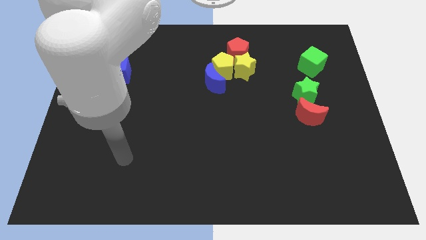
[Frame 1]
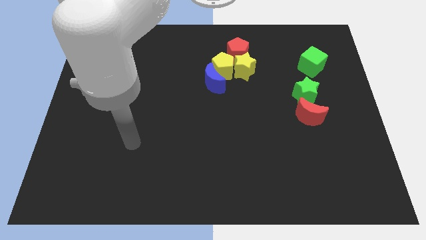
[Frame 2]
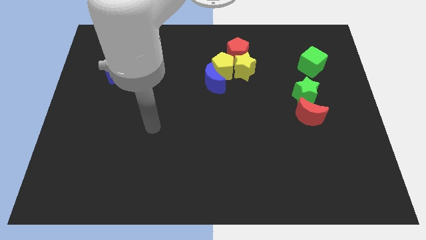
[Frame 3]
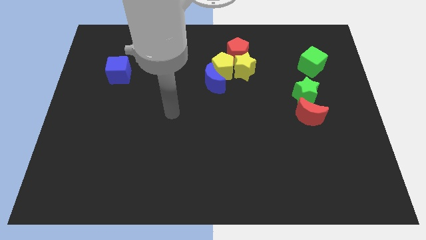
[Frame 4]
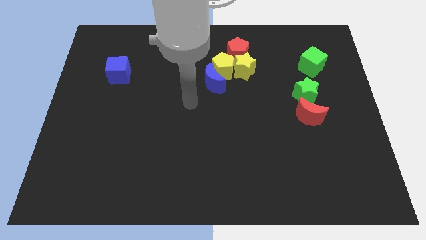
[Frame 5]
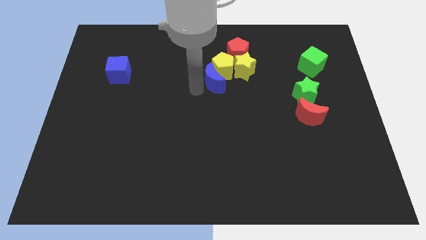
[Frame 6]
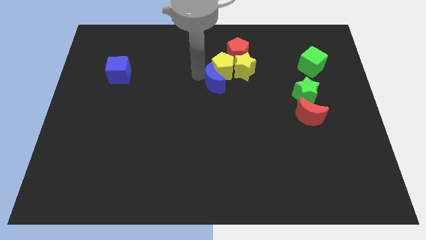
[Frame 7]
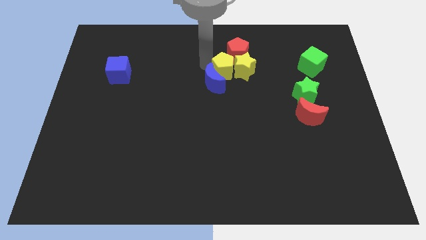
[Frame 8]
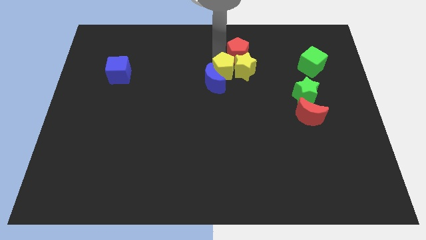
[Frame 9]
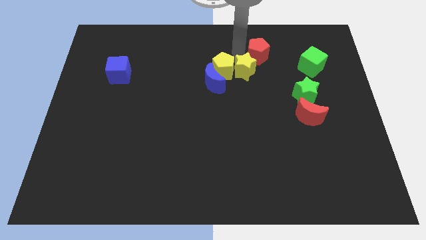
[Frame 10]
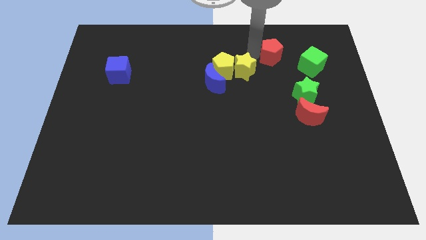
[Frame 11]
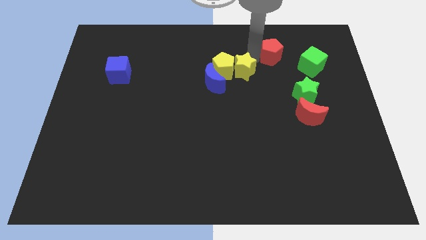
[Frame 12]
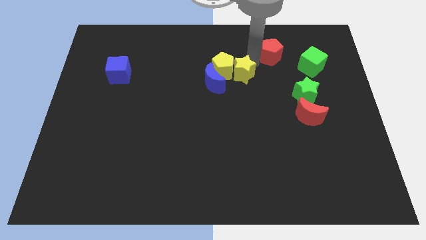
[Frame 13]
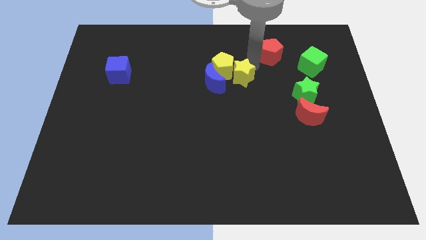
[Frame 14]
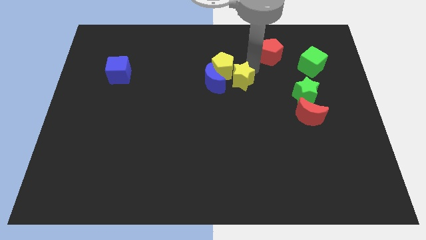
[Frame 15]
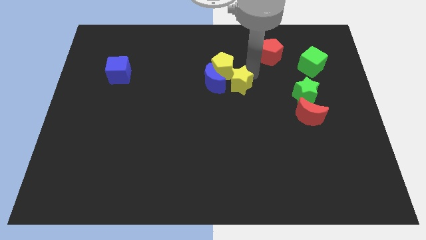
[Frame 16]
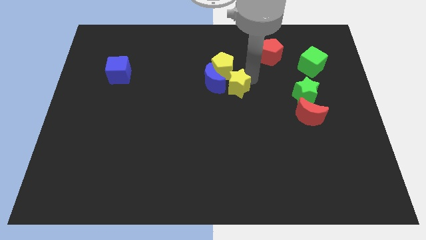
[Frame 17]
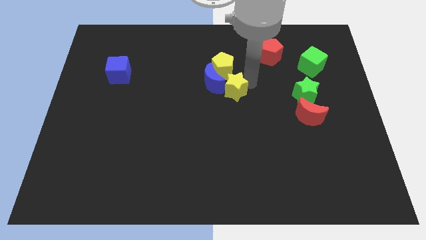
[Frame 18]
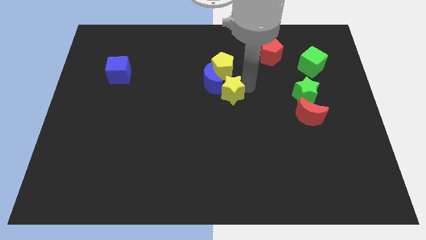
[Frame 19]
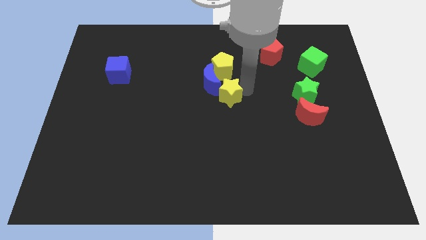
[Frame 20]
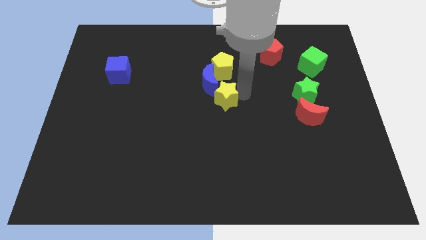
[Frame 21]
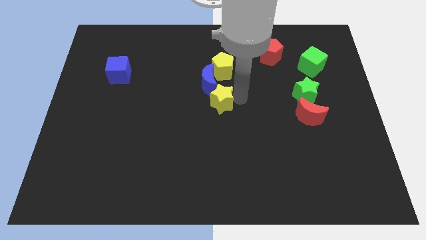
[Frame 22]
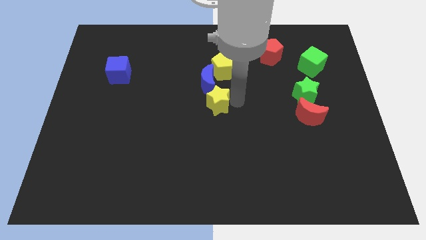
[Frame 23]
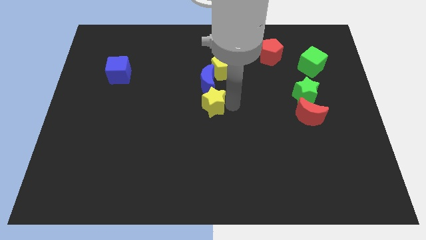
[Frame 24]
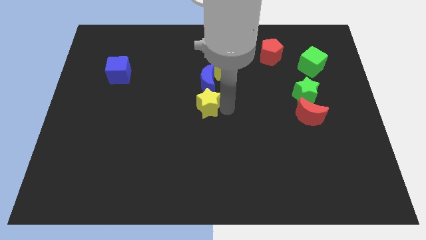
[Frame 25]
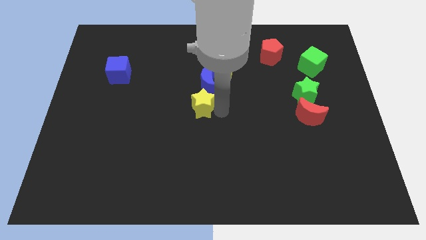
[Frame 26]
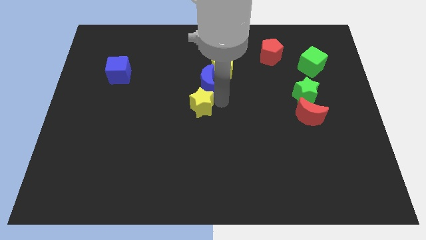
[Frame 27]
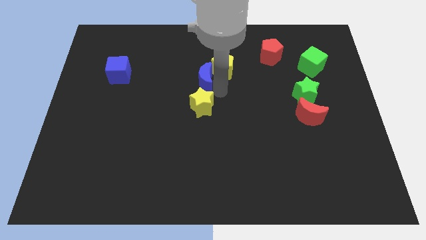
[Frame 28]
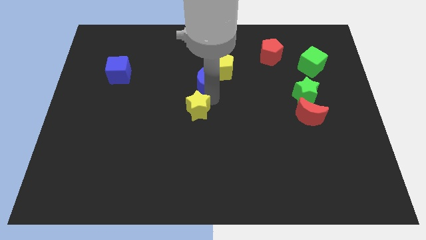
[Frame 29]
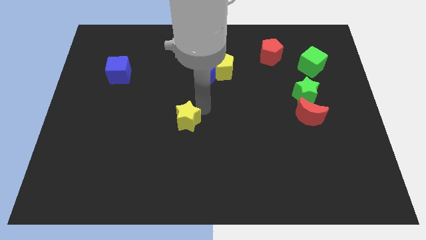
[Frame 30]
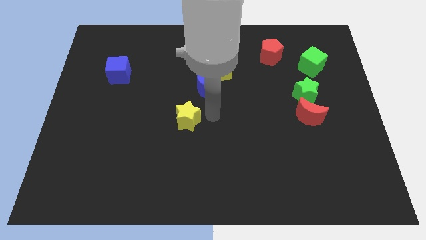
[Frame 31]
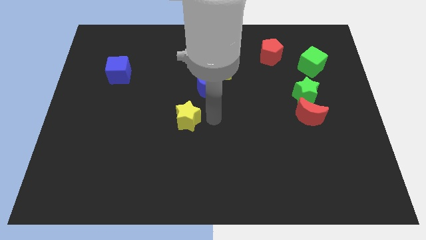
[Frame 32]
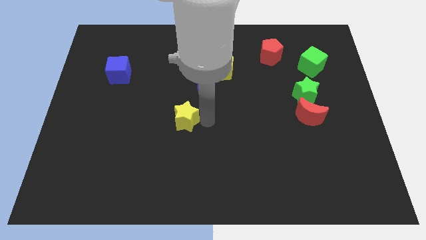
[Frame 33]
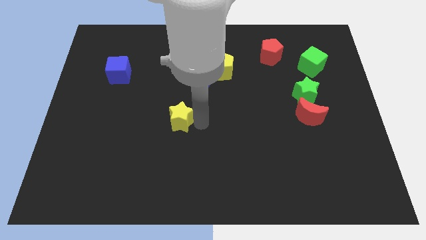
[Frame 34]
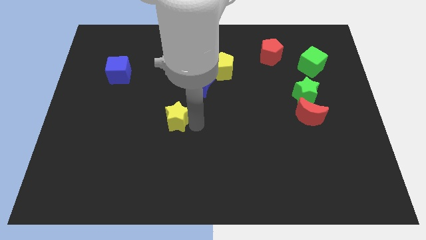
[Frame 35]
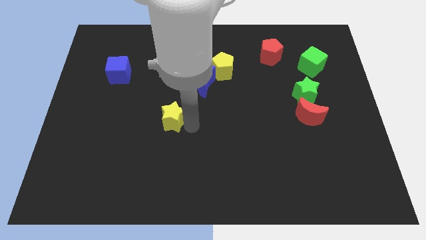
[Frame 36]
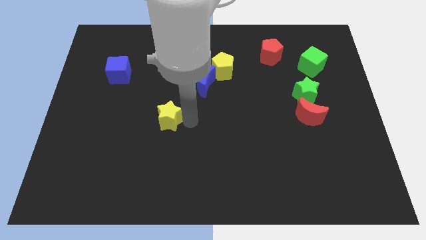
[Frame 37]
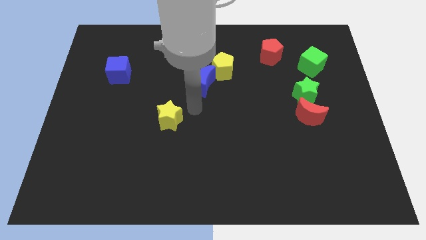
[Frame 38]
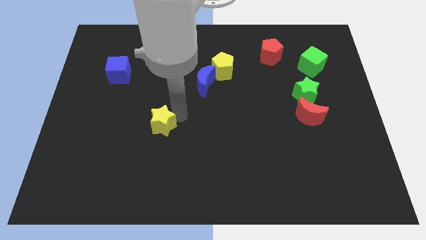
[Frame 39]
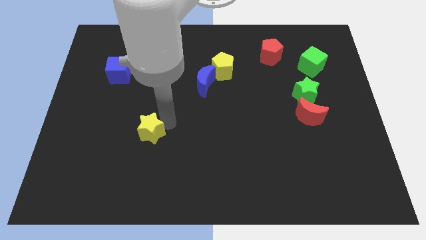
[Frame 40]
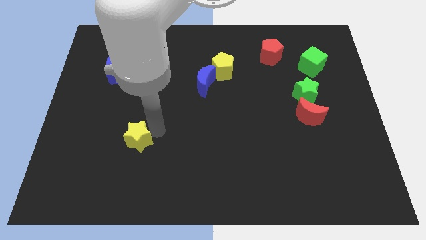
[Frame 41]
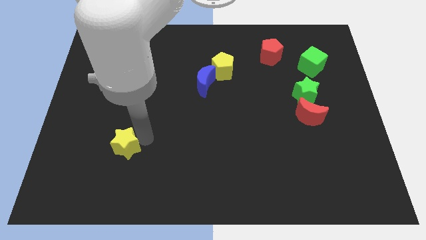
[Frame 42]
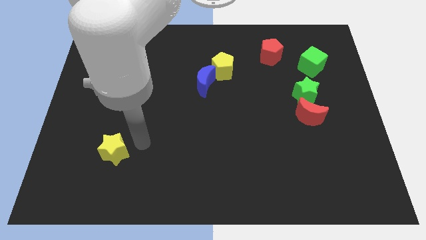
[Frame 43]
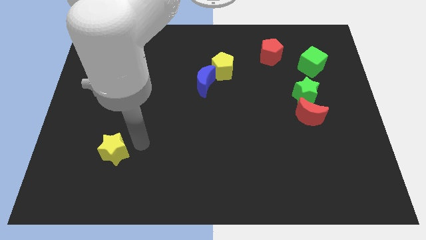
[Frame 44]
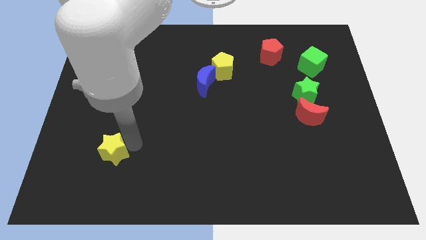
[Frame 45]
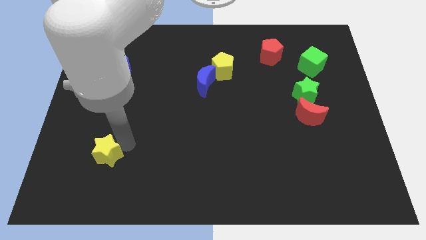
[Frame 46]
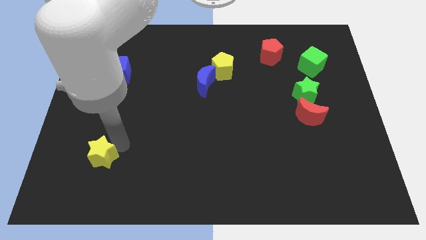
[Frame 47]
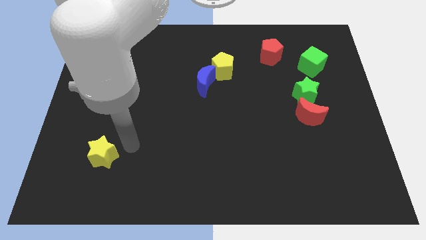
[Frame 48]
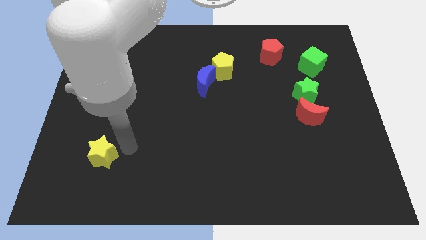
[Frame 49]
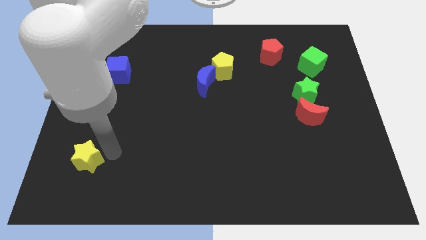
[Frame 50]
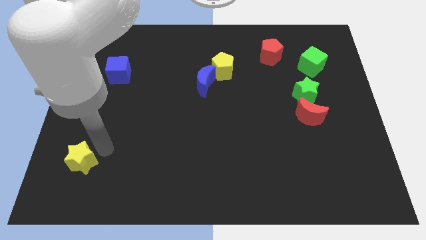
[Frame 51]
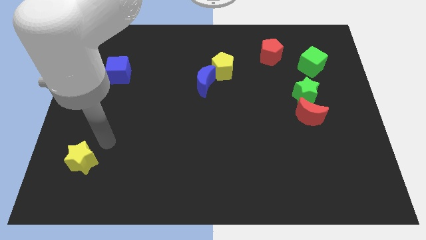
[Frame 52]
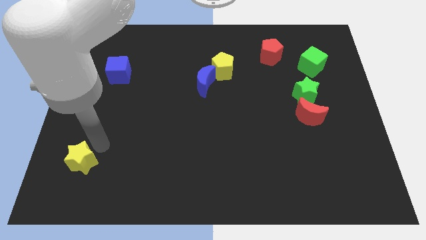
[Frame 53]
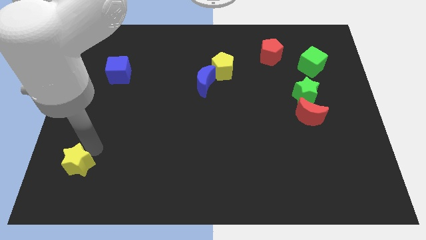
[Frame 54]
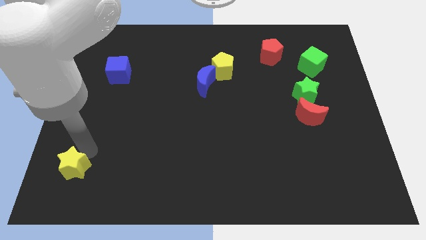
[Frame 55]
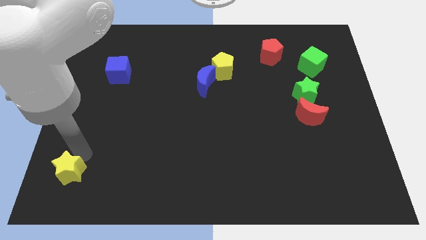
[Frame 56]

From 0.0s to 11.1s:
put the yellow star to the lower left corner

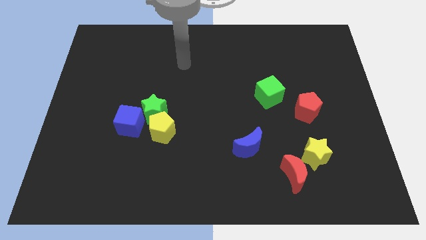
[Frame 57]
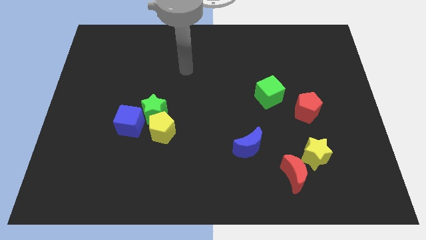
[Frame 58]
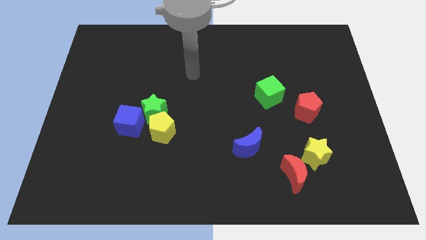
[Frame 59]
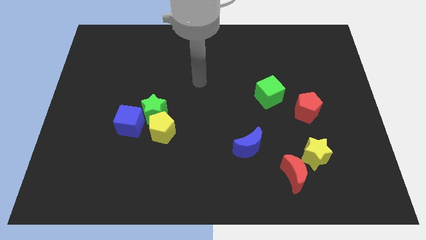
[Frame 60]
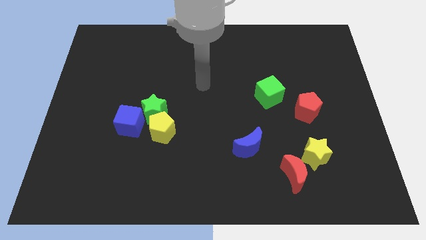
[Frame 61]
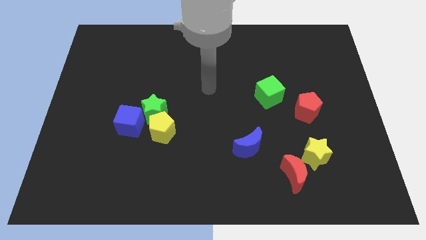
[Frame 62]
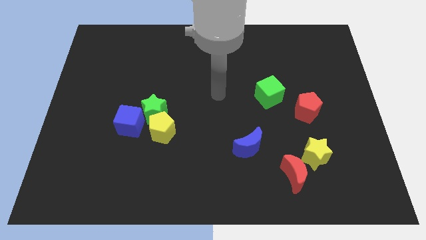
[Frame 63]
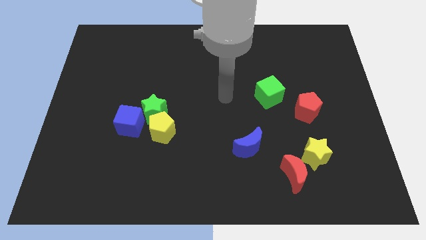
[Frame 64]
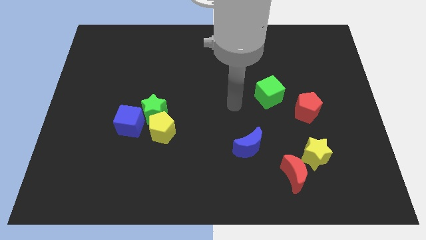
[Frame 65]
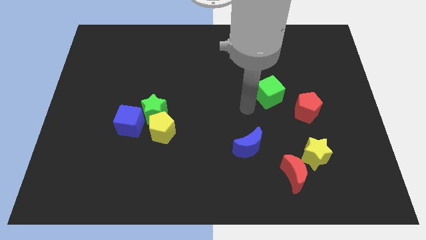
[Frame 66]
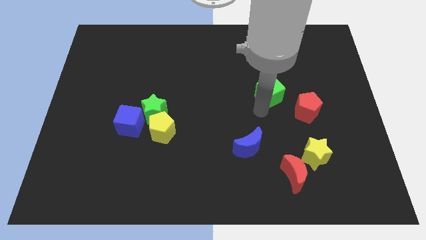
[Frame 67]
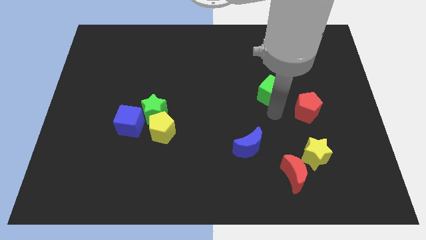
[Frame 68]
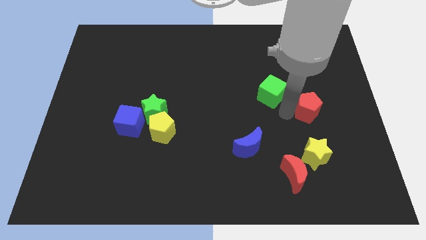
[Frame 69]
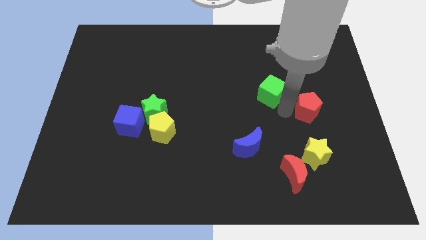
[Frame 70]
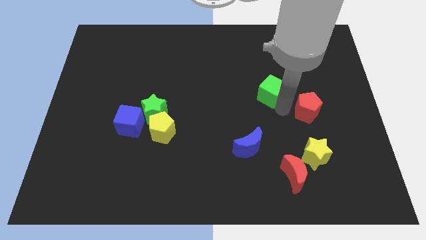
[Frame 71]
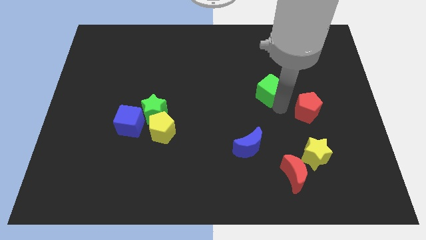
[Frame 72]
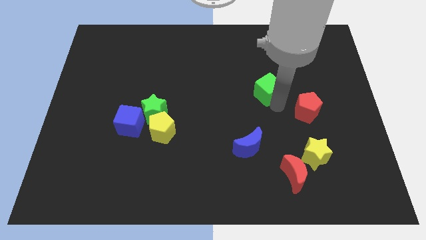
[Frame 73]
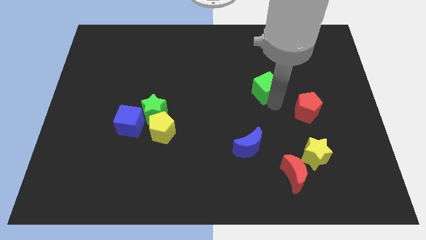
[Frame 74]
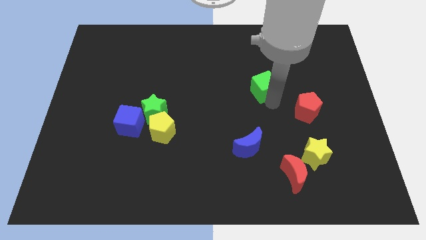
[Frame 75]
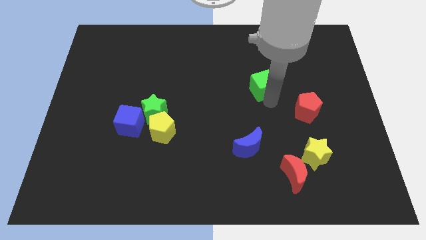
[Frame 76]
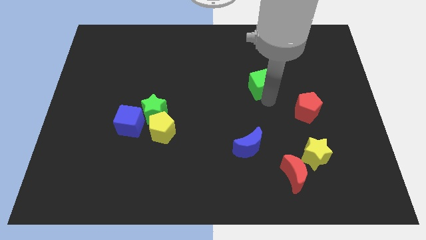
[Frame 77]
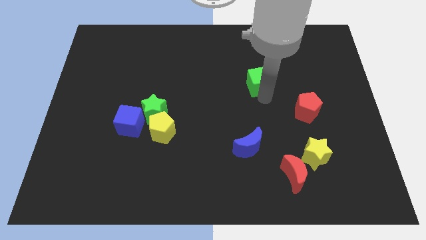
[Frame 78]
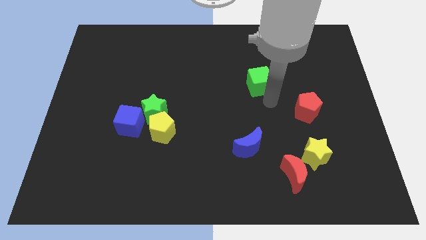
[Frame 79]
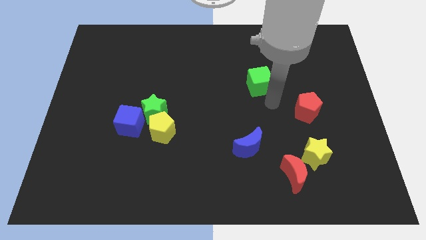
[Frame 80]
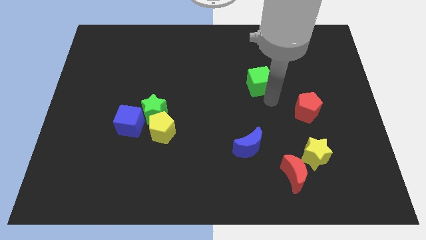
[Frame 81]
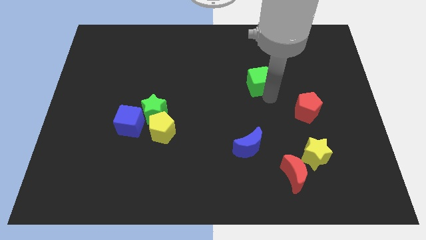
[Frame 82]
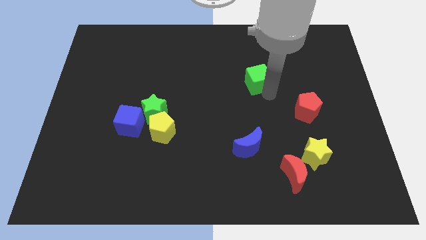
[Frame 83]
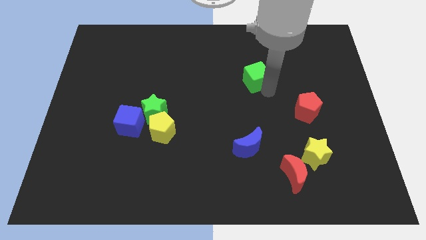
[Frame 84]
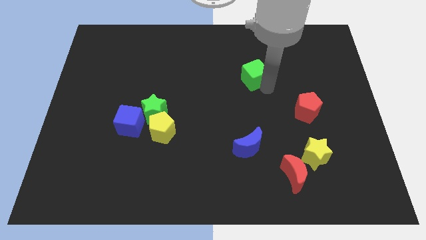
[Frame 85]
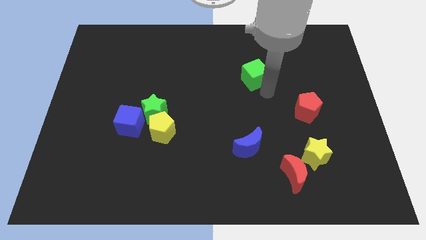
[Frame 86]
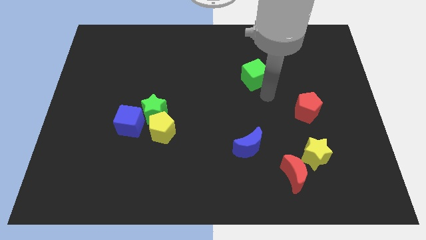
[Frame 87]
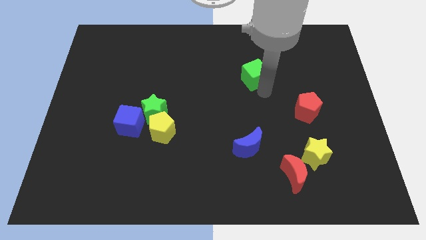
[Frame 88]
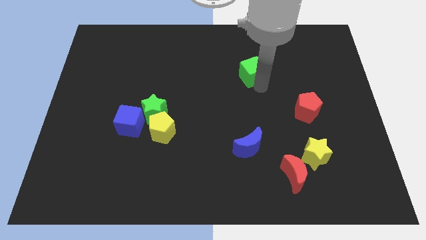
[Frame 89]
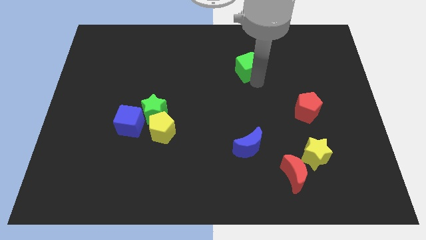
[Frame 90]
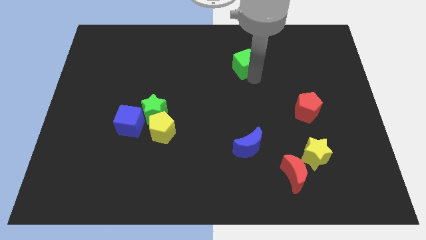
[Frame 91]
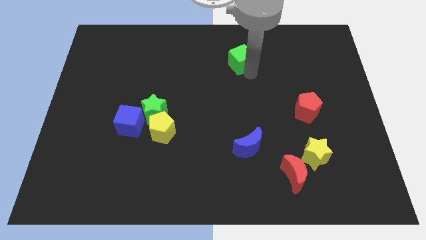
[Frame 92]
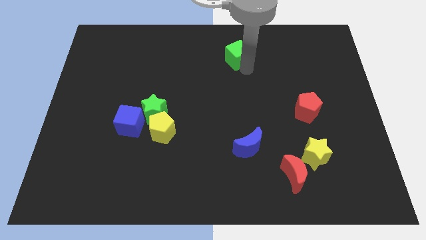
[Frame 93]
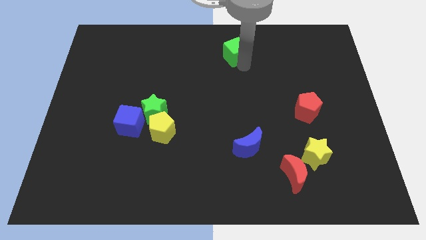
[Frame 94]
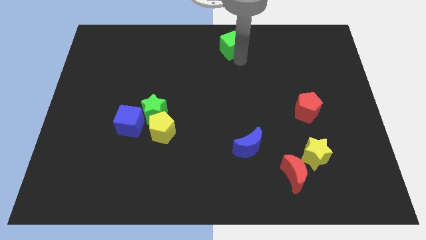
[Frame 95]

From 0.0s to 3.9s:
move the green cube to the top side
